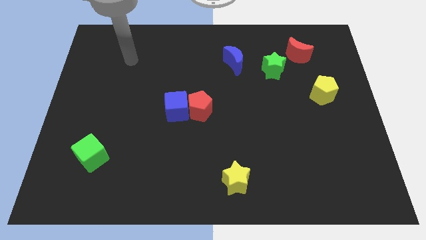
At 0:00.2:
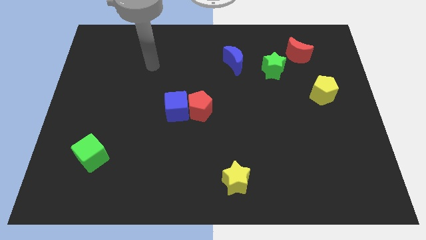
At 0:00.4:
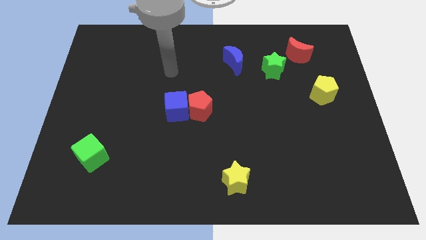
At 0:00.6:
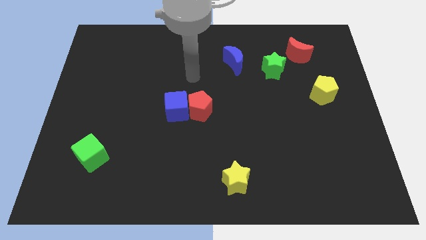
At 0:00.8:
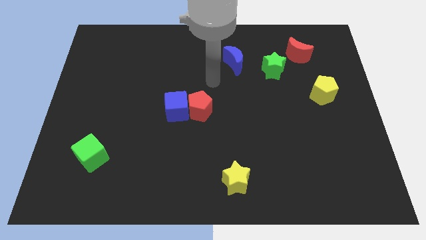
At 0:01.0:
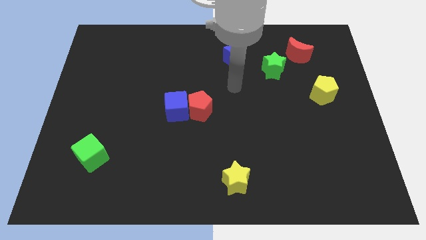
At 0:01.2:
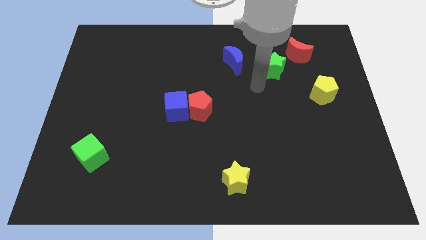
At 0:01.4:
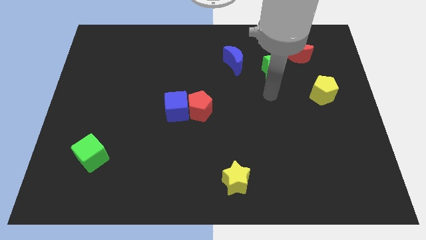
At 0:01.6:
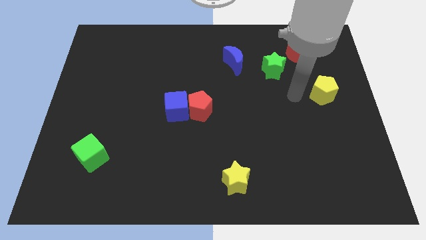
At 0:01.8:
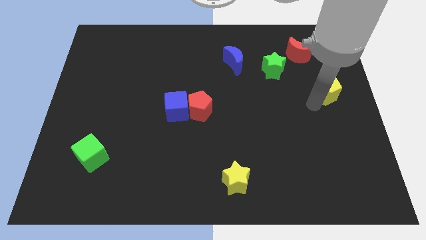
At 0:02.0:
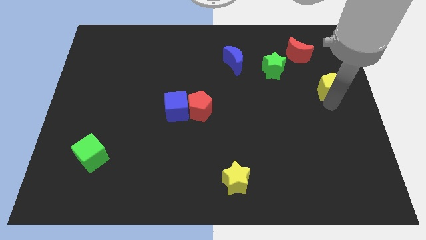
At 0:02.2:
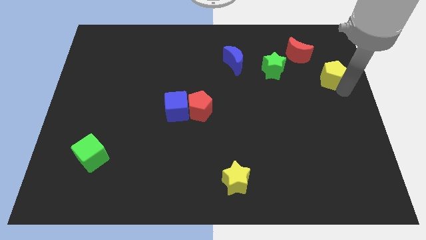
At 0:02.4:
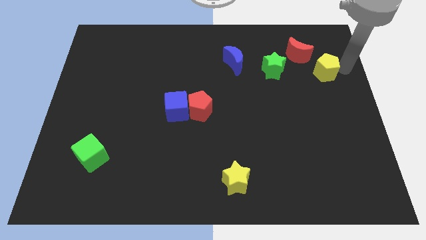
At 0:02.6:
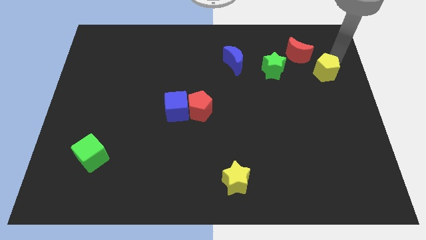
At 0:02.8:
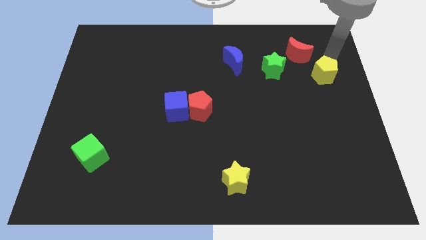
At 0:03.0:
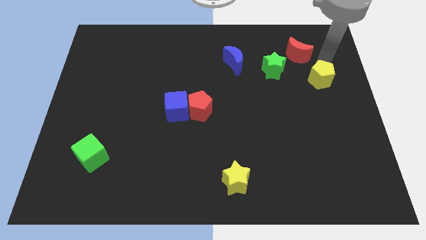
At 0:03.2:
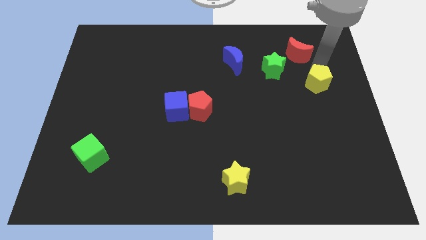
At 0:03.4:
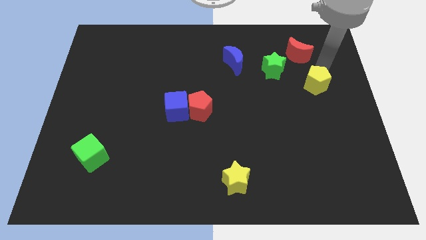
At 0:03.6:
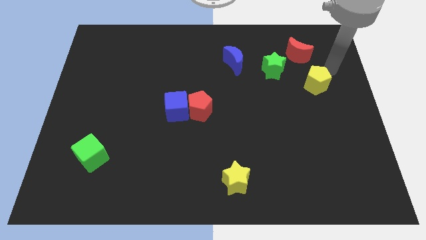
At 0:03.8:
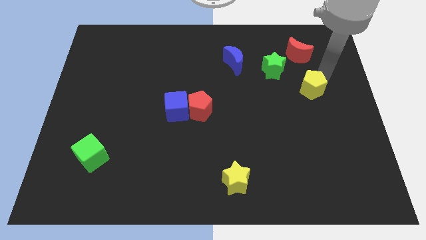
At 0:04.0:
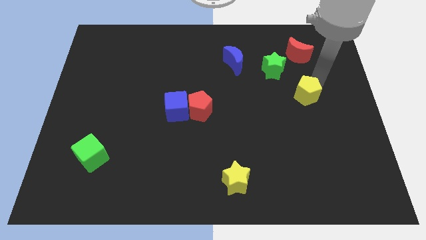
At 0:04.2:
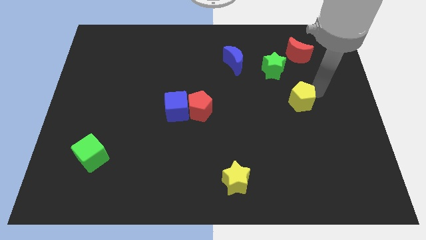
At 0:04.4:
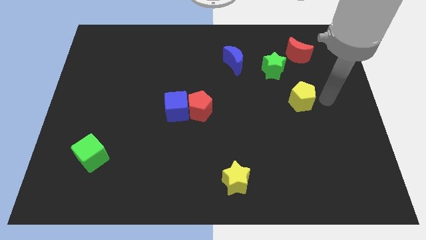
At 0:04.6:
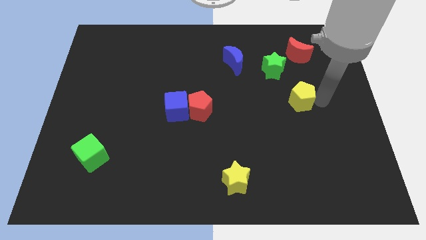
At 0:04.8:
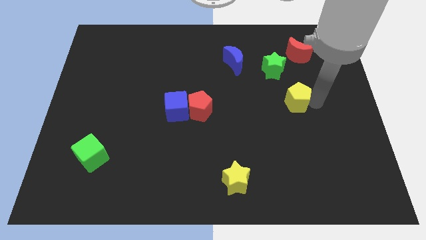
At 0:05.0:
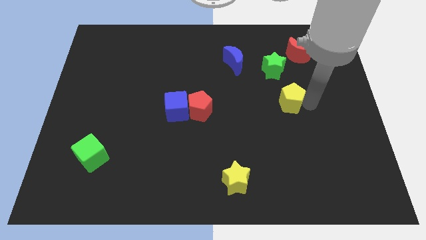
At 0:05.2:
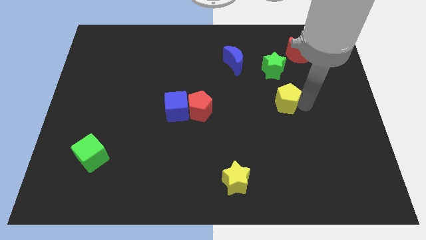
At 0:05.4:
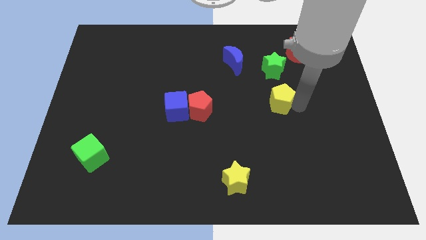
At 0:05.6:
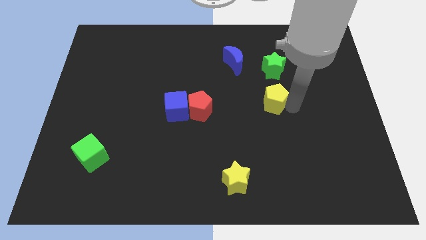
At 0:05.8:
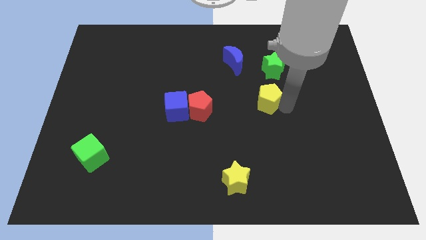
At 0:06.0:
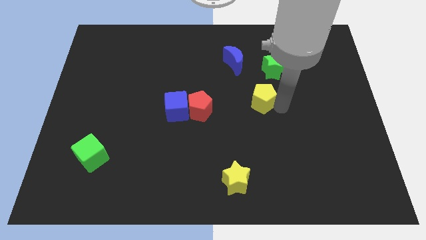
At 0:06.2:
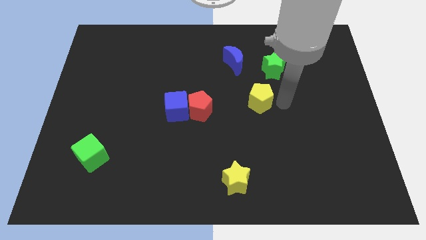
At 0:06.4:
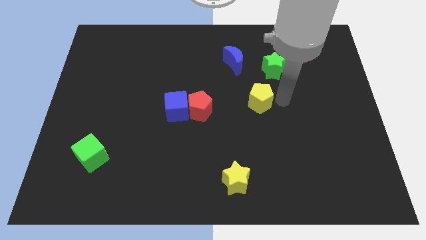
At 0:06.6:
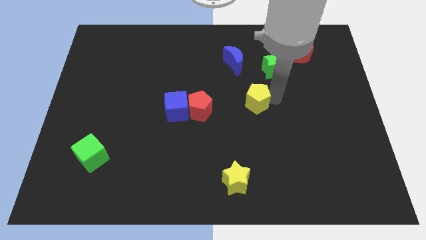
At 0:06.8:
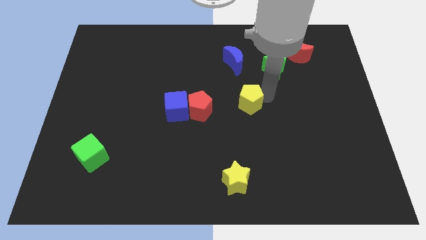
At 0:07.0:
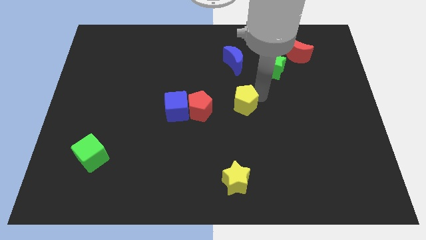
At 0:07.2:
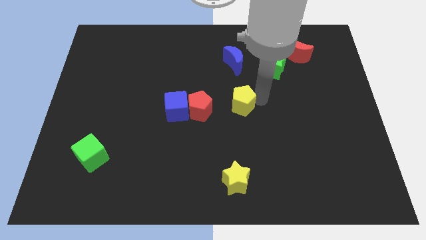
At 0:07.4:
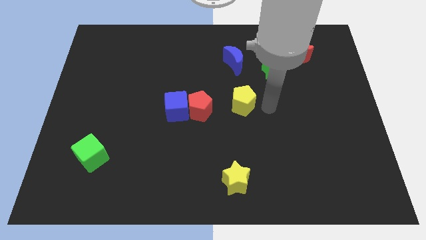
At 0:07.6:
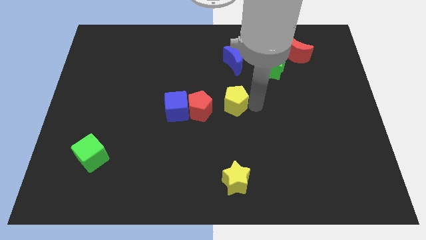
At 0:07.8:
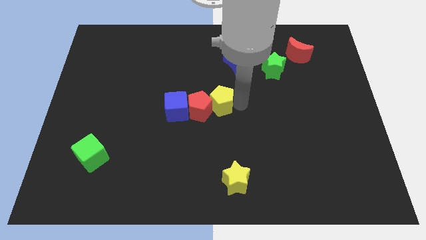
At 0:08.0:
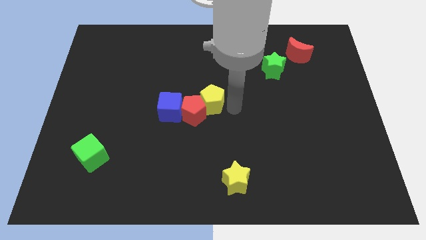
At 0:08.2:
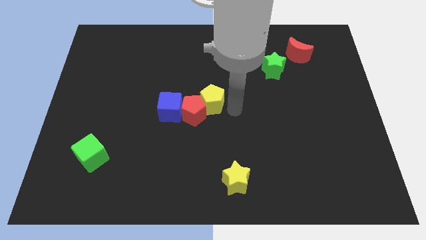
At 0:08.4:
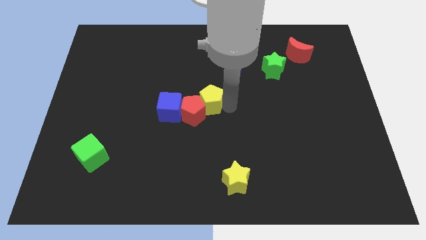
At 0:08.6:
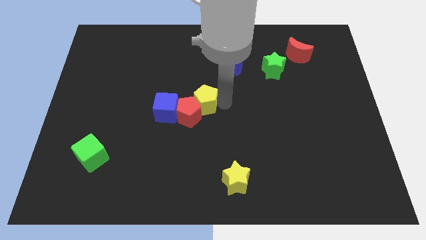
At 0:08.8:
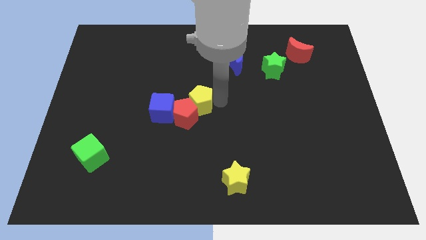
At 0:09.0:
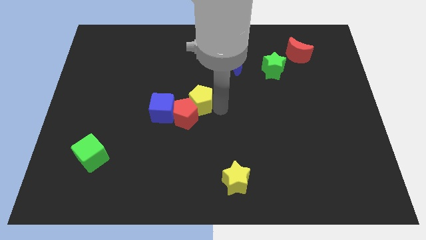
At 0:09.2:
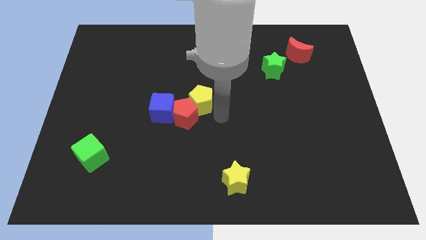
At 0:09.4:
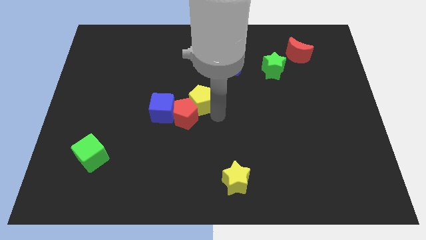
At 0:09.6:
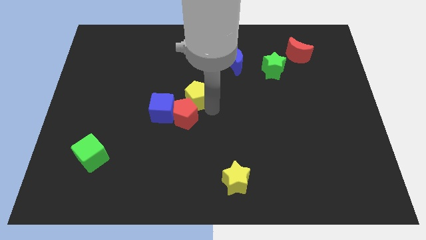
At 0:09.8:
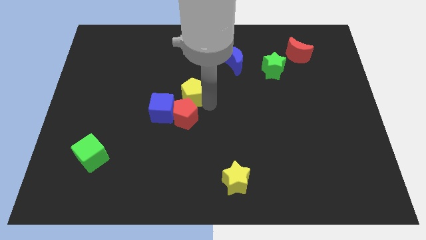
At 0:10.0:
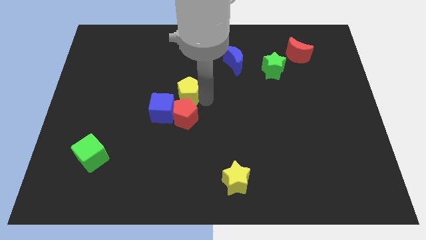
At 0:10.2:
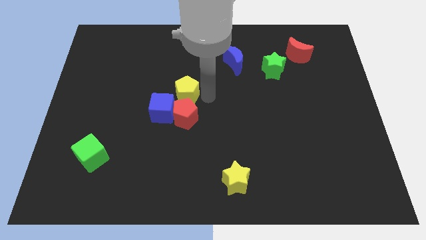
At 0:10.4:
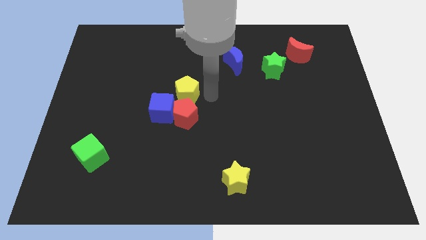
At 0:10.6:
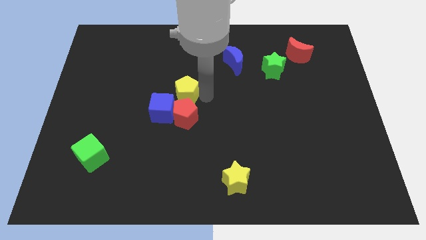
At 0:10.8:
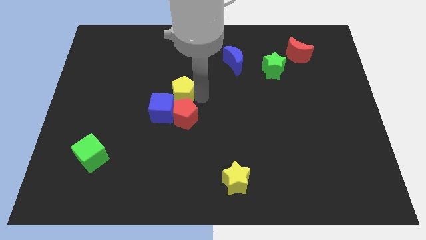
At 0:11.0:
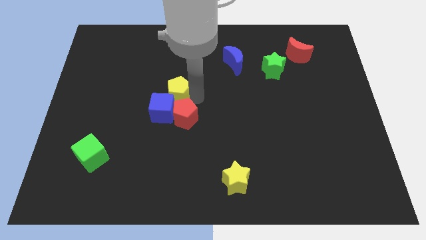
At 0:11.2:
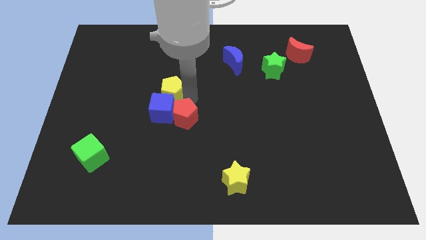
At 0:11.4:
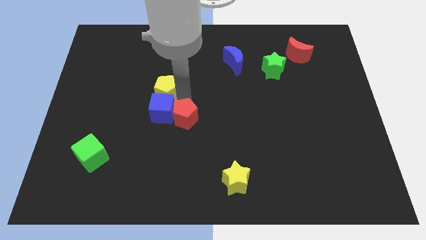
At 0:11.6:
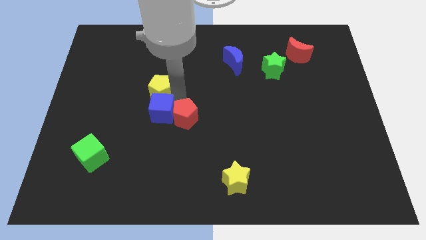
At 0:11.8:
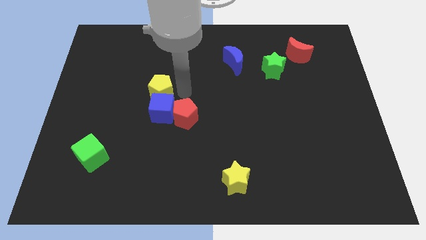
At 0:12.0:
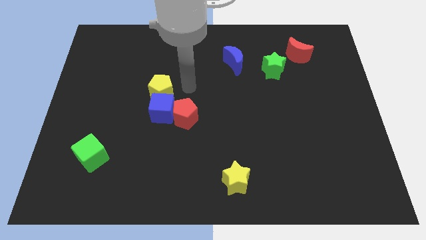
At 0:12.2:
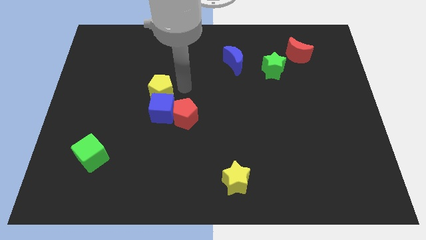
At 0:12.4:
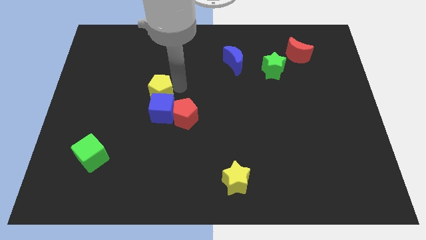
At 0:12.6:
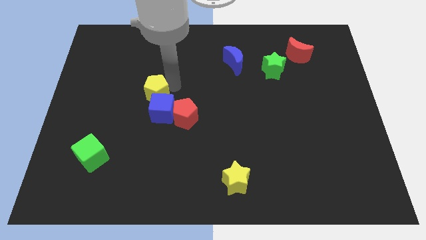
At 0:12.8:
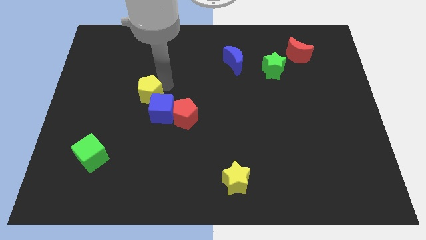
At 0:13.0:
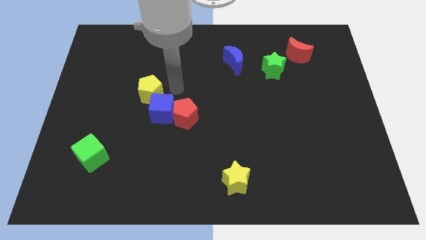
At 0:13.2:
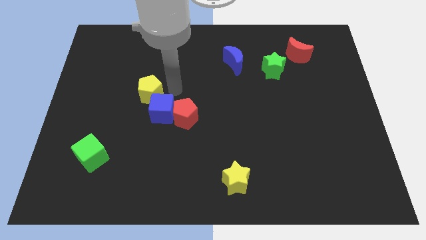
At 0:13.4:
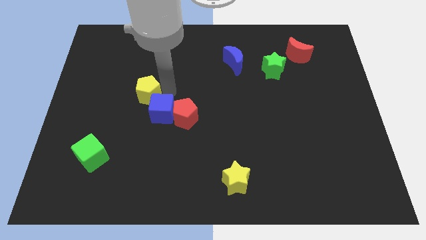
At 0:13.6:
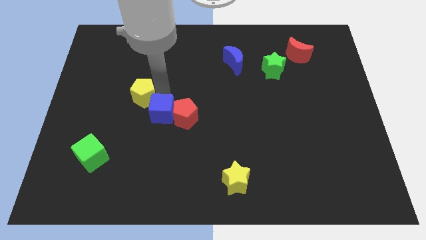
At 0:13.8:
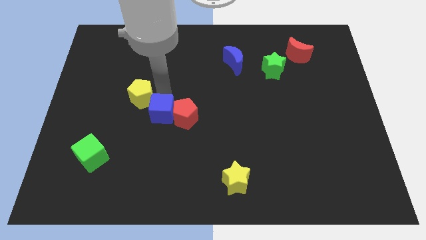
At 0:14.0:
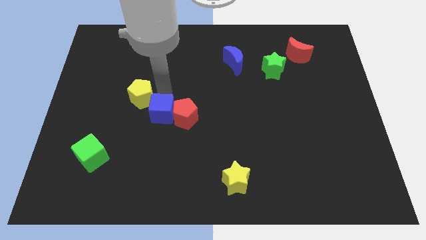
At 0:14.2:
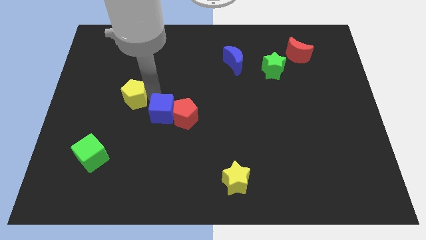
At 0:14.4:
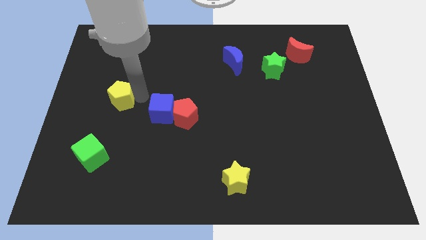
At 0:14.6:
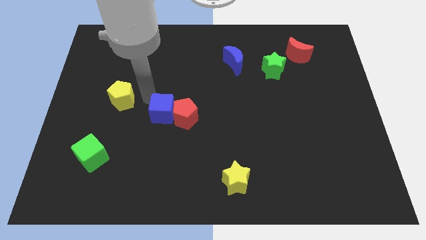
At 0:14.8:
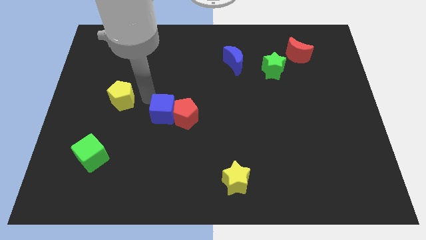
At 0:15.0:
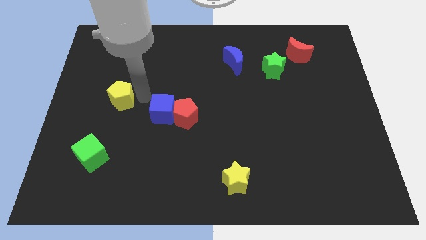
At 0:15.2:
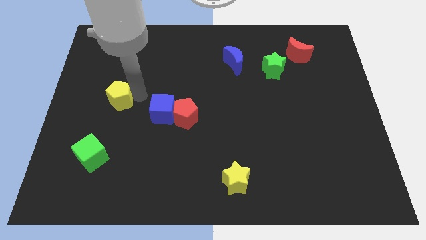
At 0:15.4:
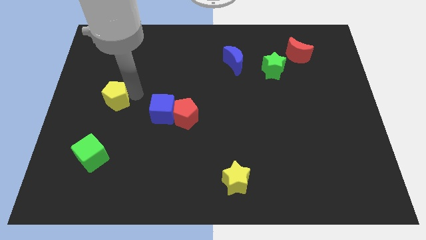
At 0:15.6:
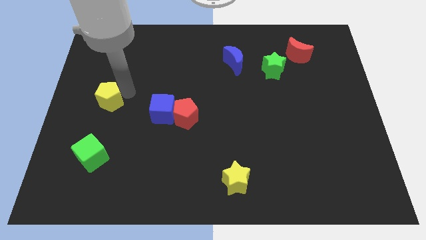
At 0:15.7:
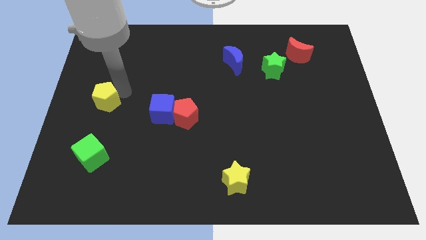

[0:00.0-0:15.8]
push the yellow pentagon to the left side of the board
